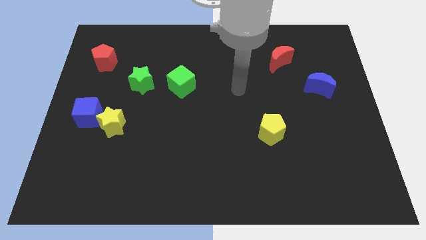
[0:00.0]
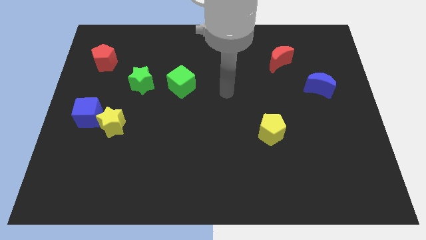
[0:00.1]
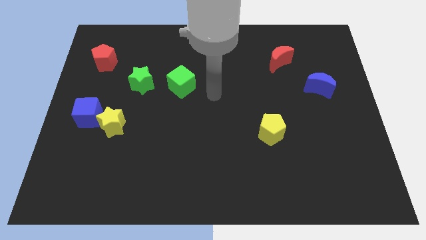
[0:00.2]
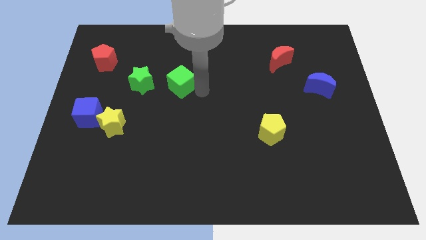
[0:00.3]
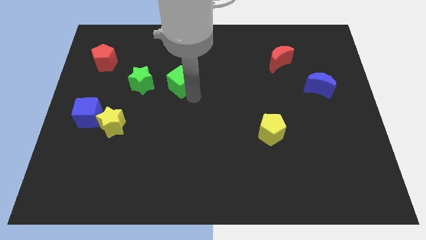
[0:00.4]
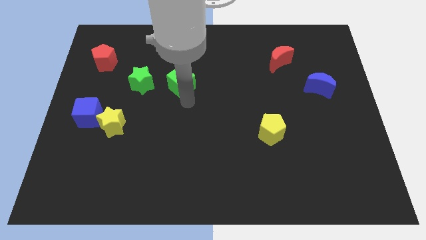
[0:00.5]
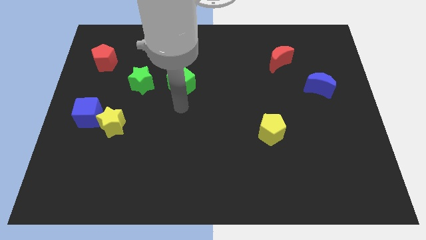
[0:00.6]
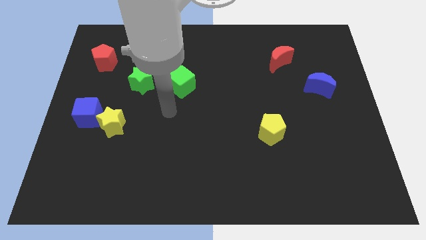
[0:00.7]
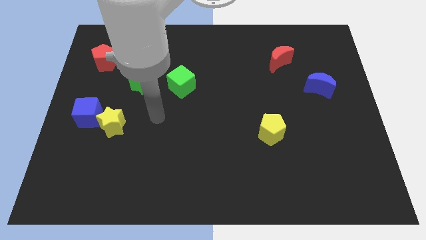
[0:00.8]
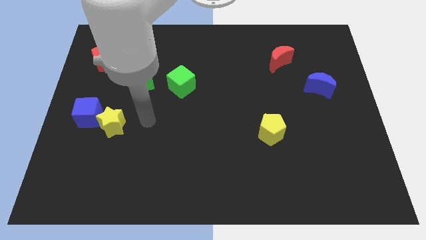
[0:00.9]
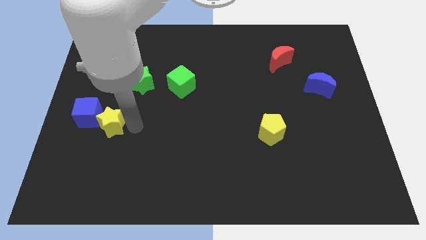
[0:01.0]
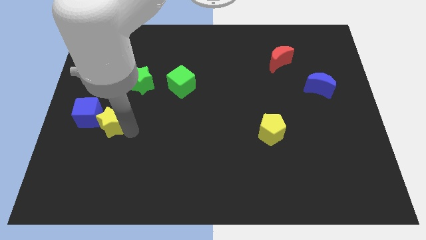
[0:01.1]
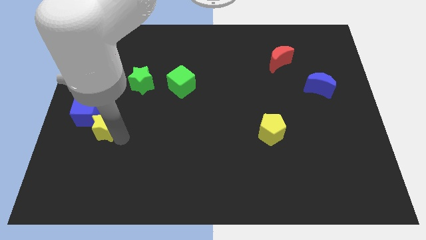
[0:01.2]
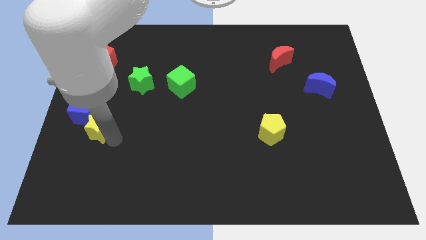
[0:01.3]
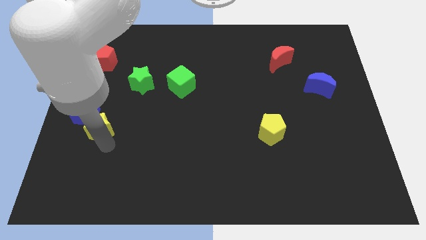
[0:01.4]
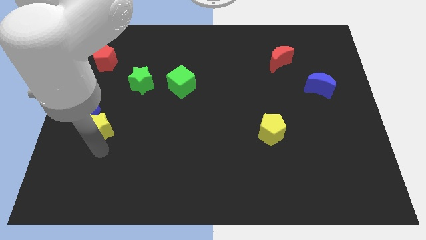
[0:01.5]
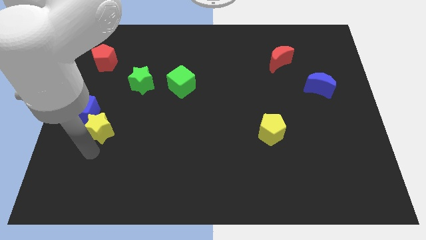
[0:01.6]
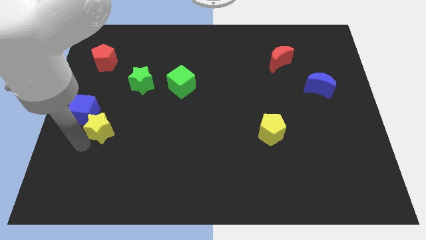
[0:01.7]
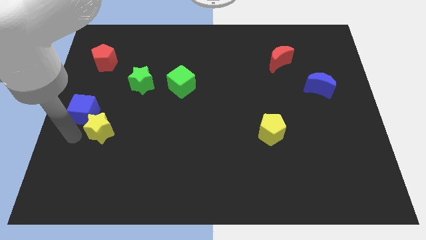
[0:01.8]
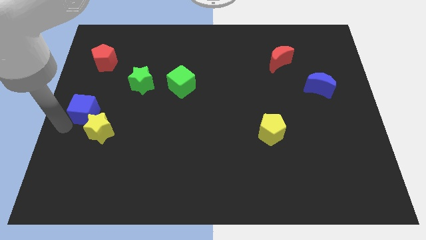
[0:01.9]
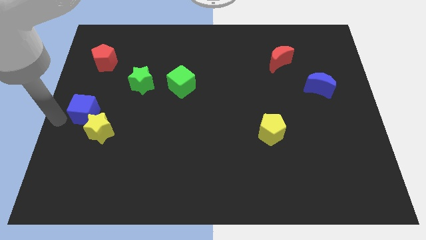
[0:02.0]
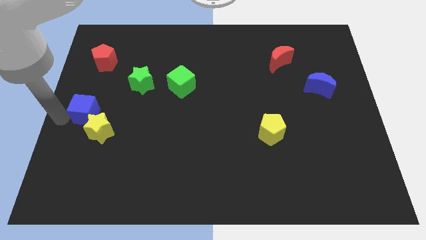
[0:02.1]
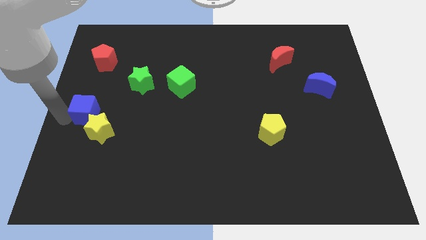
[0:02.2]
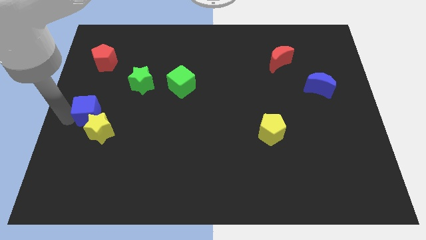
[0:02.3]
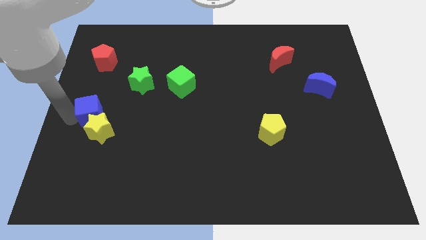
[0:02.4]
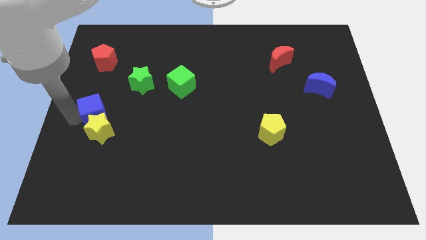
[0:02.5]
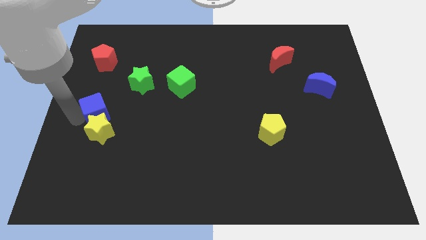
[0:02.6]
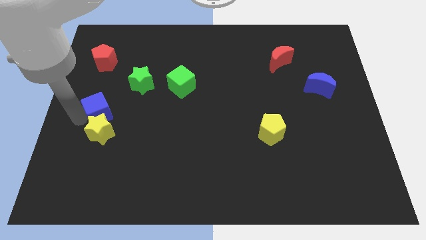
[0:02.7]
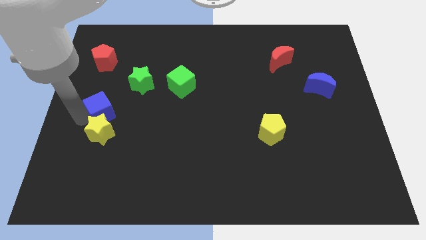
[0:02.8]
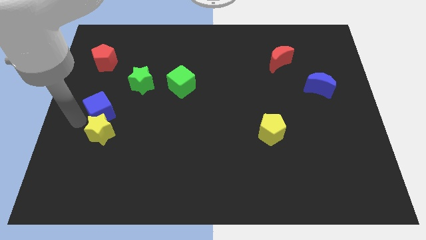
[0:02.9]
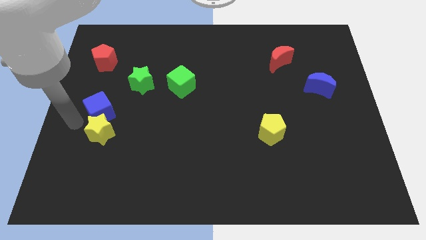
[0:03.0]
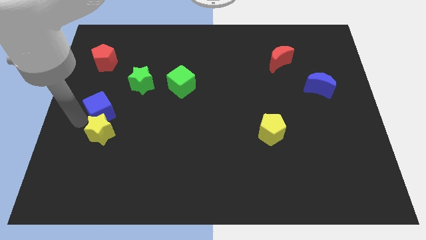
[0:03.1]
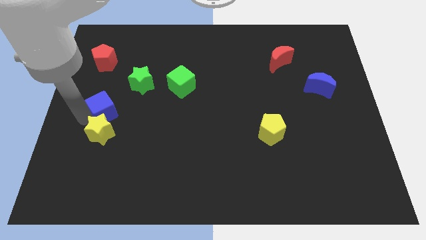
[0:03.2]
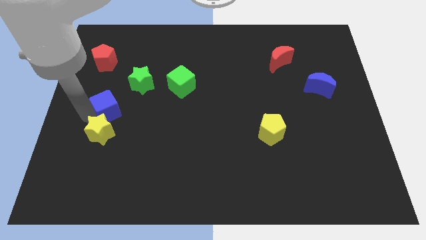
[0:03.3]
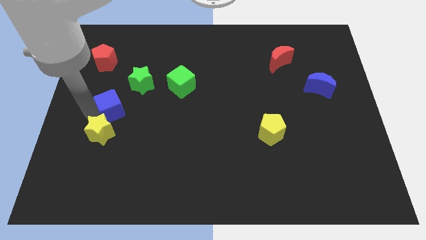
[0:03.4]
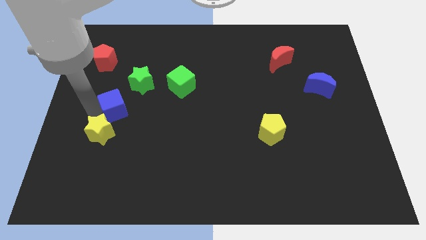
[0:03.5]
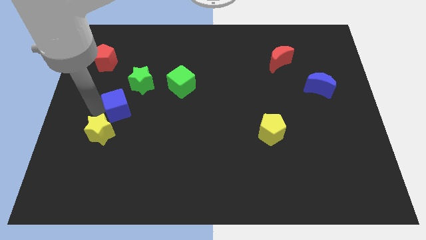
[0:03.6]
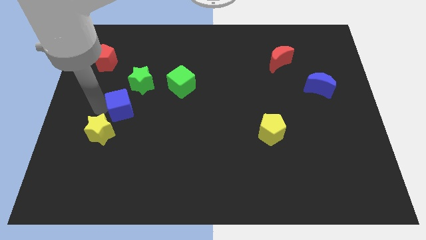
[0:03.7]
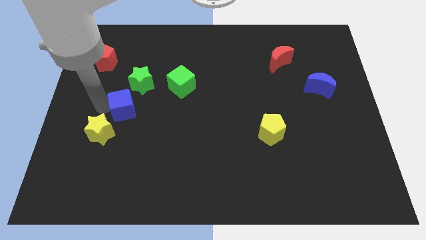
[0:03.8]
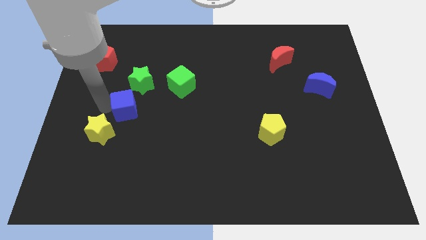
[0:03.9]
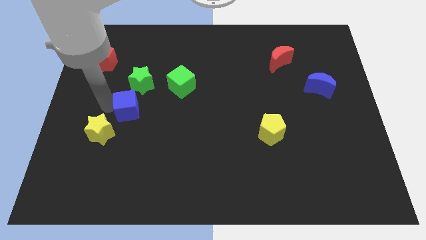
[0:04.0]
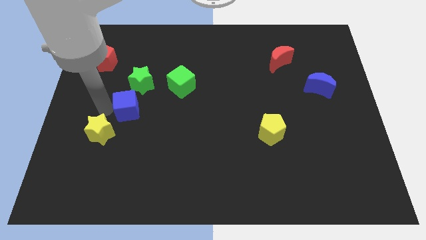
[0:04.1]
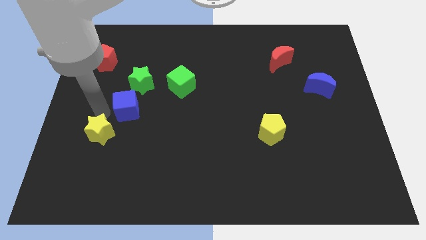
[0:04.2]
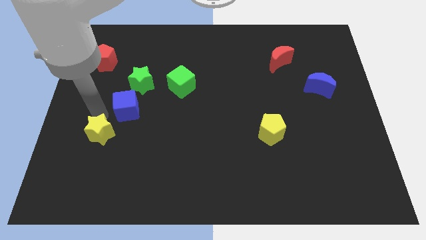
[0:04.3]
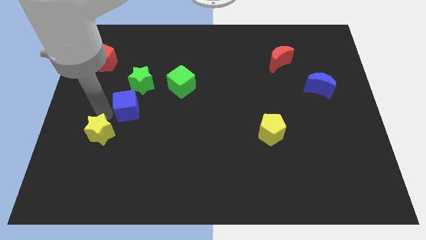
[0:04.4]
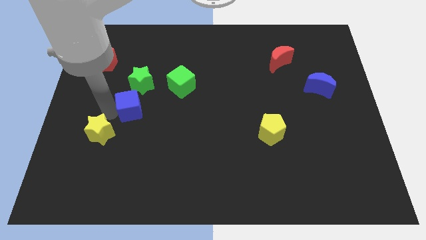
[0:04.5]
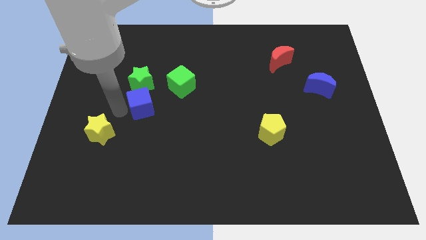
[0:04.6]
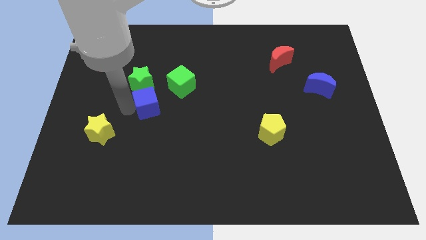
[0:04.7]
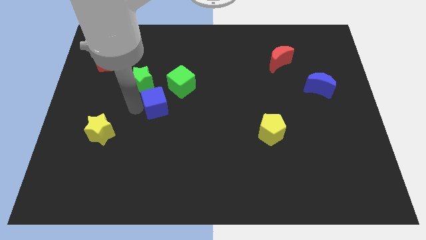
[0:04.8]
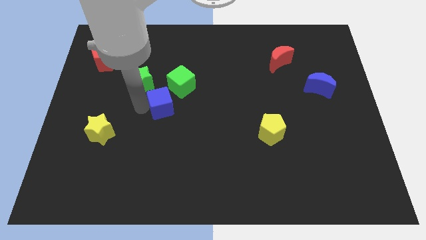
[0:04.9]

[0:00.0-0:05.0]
put the blue cube to the center

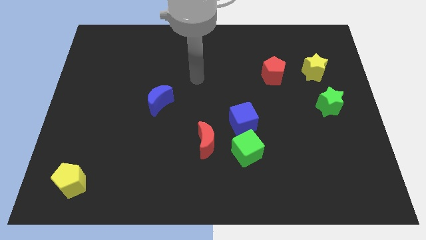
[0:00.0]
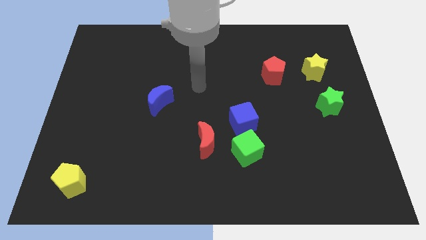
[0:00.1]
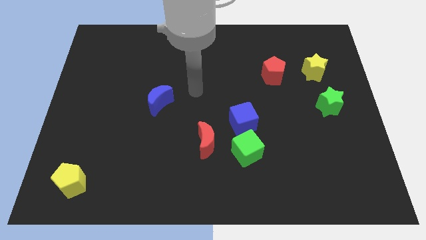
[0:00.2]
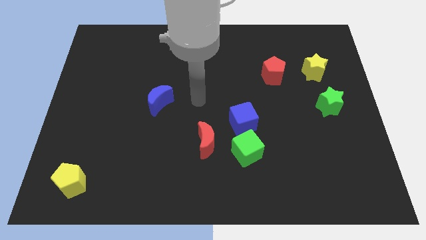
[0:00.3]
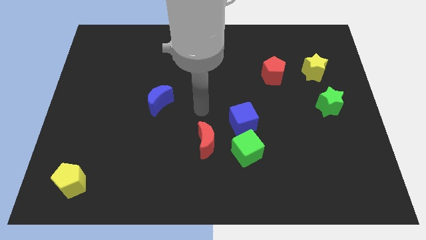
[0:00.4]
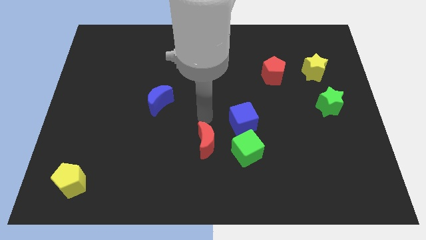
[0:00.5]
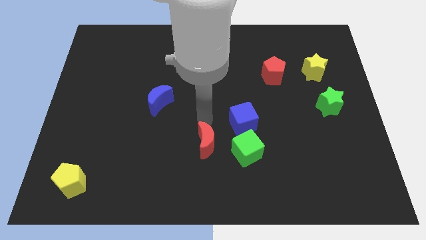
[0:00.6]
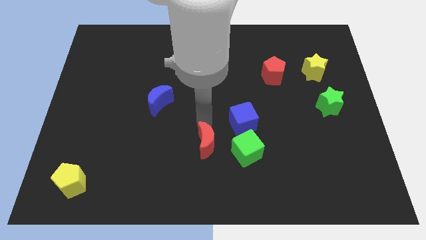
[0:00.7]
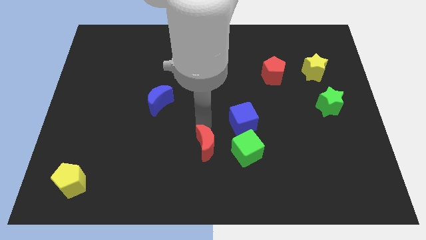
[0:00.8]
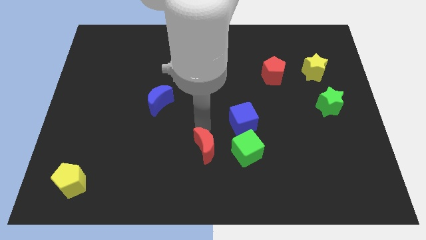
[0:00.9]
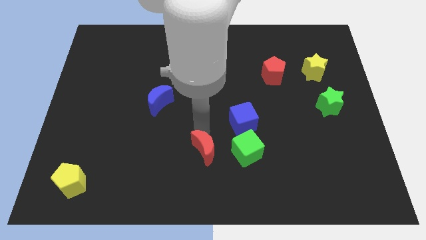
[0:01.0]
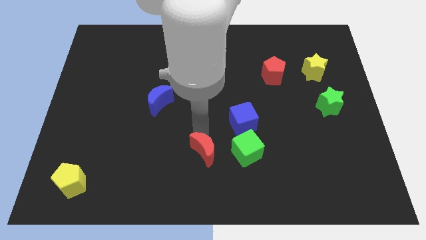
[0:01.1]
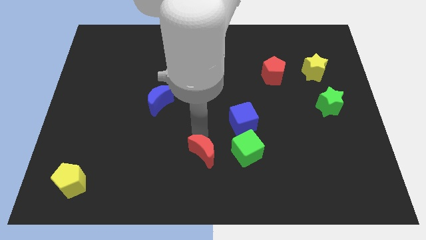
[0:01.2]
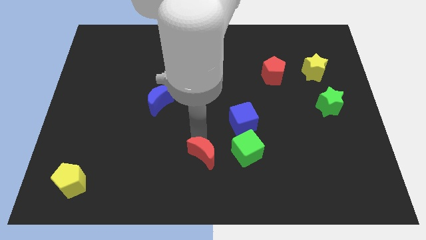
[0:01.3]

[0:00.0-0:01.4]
slide the red moon to the bottom side
